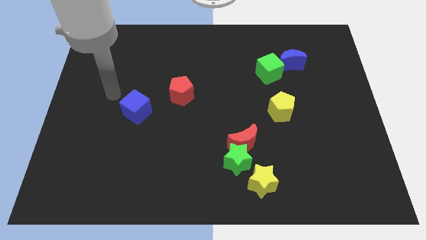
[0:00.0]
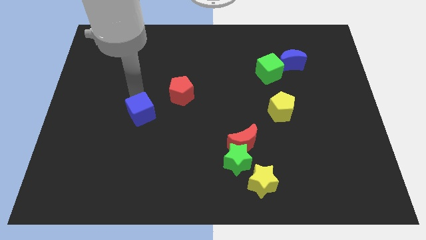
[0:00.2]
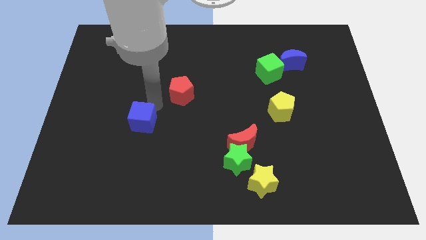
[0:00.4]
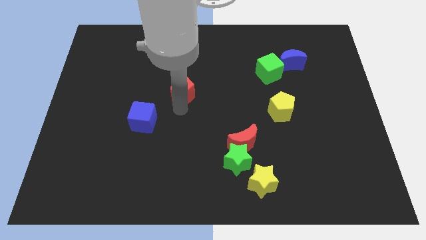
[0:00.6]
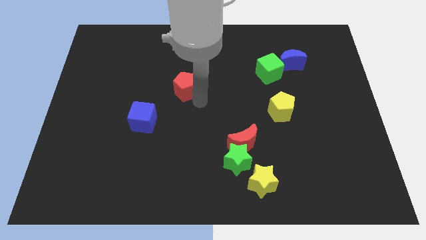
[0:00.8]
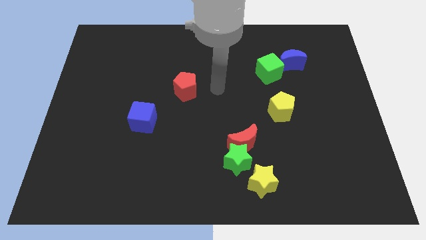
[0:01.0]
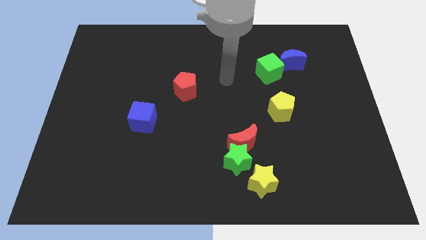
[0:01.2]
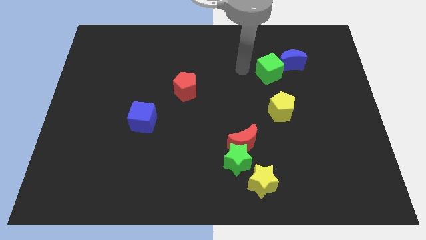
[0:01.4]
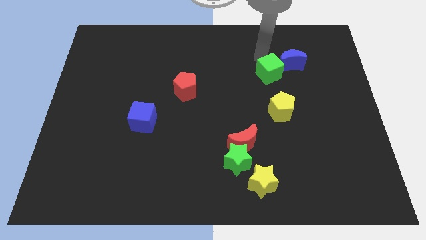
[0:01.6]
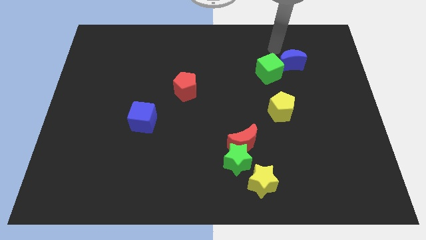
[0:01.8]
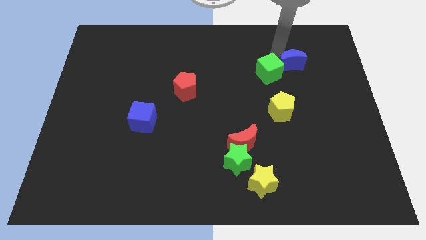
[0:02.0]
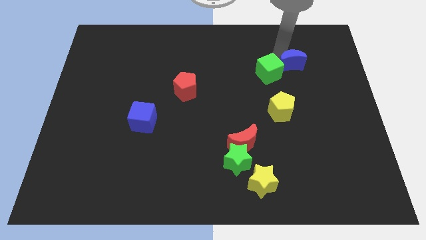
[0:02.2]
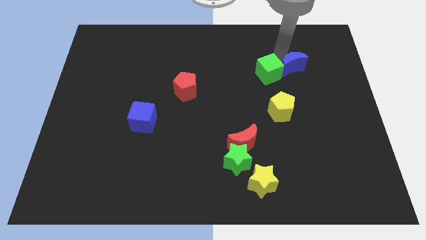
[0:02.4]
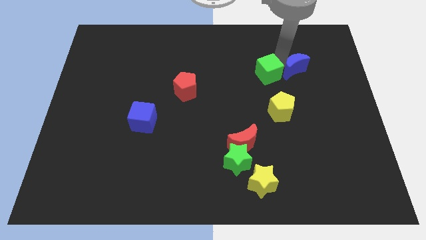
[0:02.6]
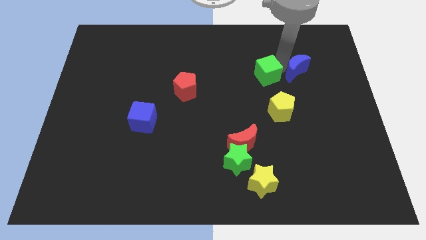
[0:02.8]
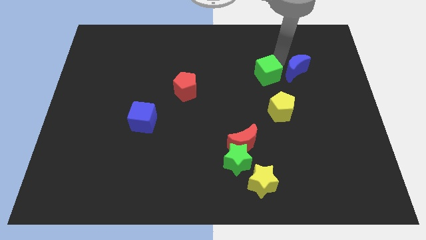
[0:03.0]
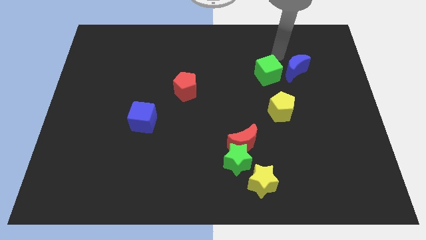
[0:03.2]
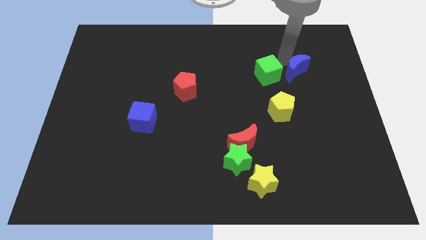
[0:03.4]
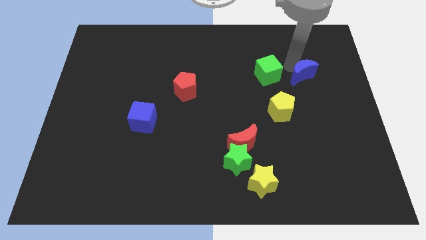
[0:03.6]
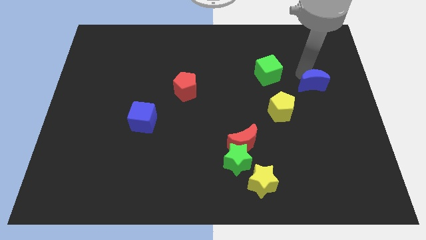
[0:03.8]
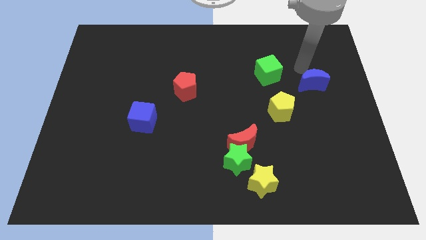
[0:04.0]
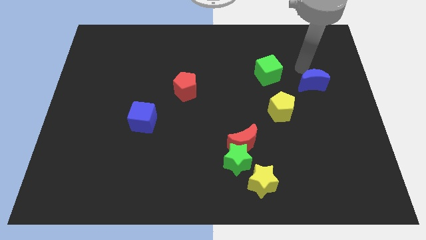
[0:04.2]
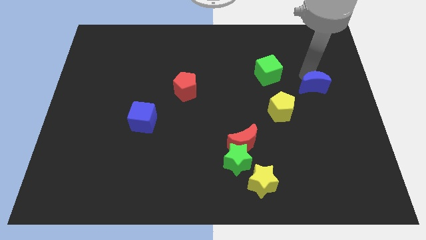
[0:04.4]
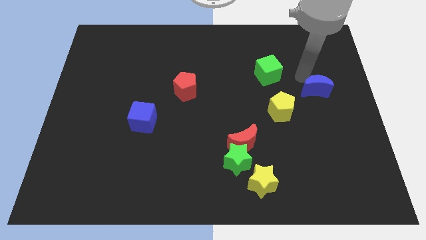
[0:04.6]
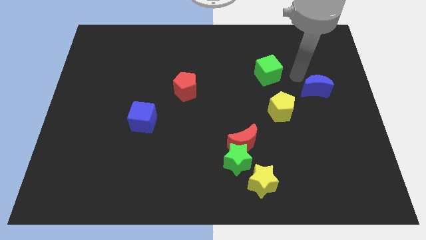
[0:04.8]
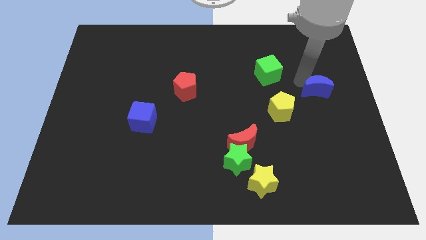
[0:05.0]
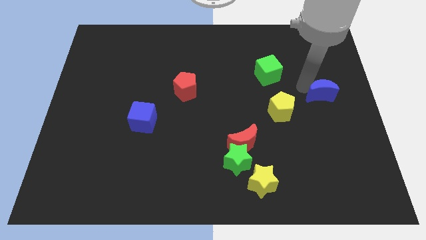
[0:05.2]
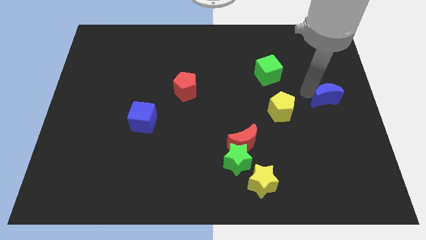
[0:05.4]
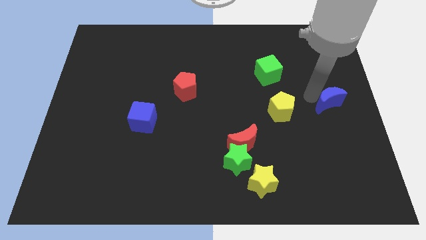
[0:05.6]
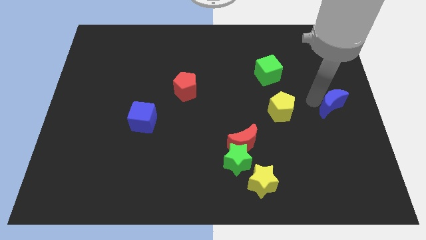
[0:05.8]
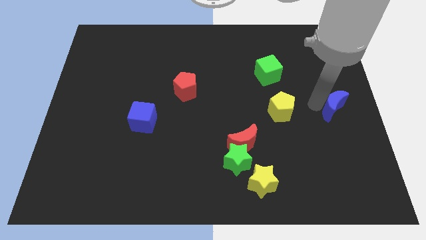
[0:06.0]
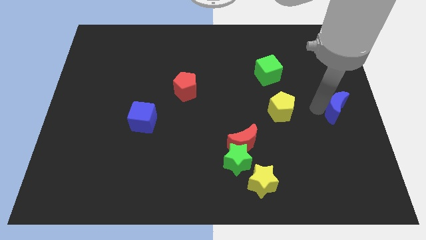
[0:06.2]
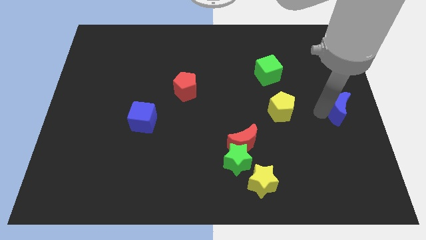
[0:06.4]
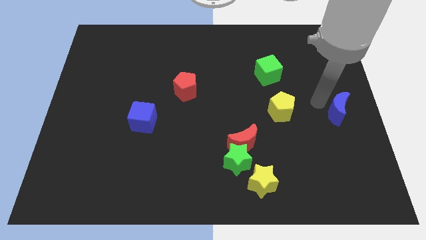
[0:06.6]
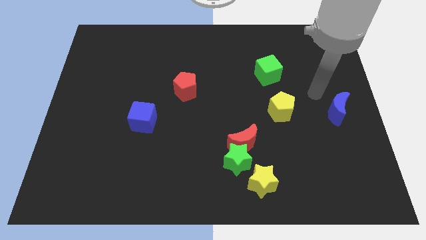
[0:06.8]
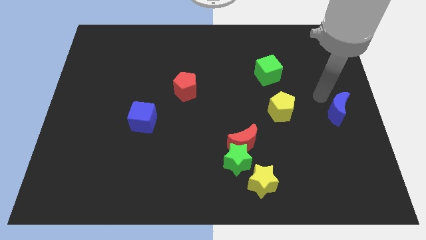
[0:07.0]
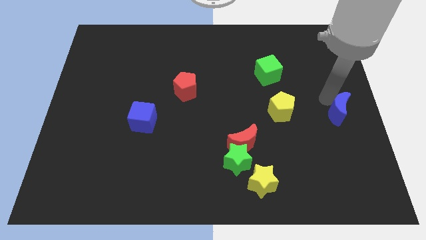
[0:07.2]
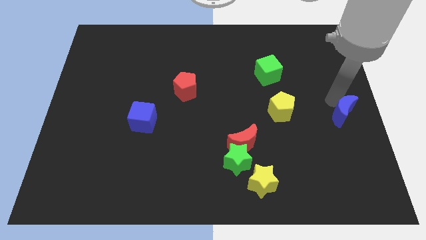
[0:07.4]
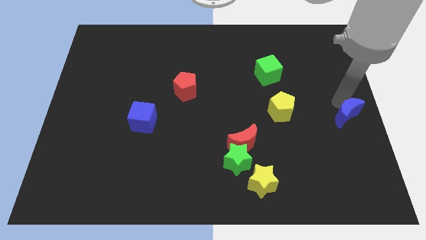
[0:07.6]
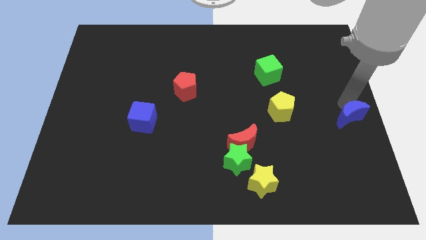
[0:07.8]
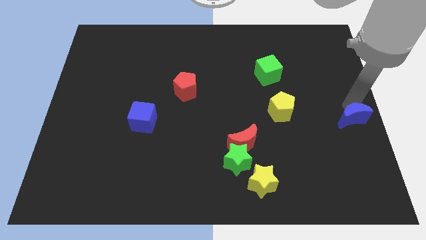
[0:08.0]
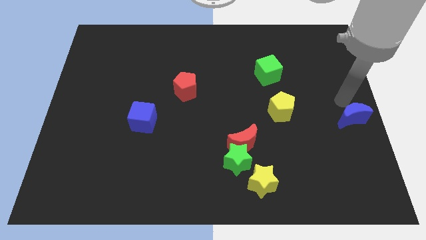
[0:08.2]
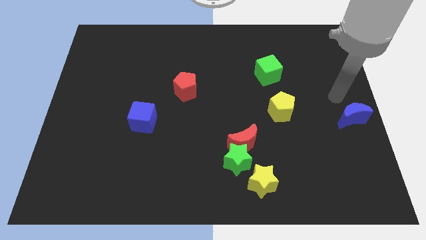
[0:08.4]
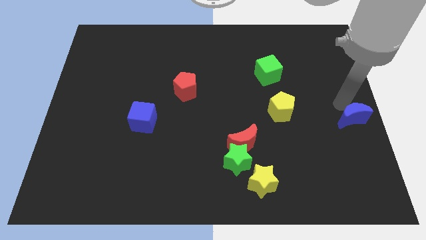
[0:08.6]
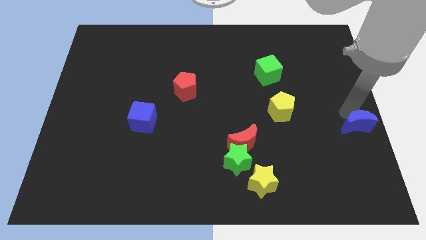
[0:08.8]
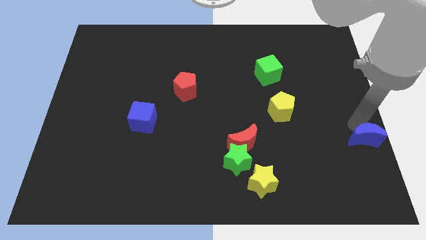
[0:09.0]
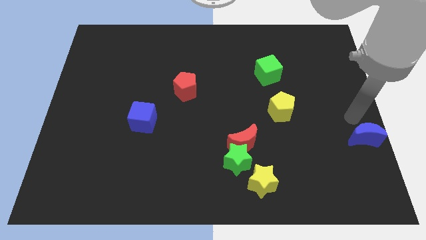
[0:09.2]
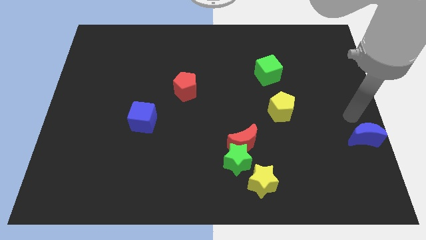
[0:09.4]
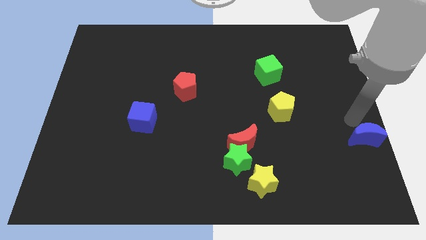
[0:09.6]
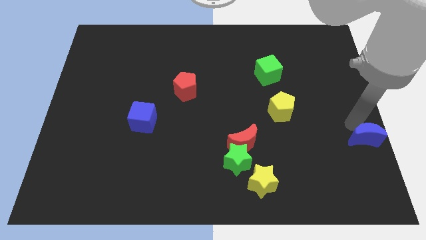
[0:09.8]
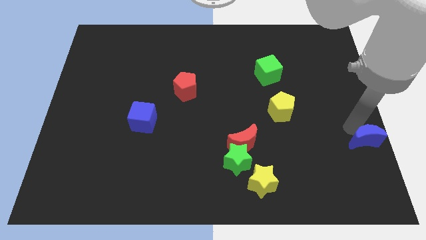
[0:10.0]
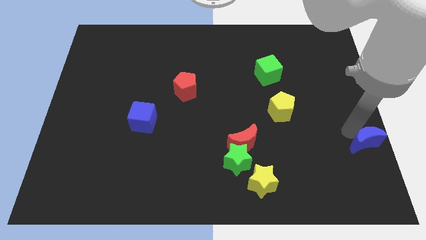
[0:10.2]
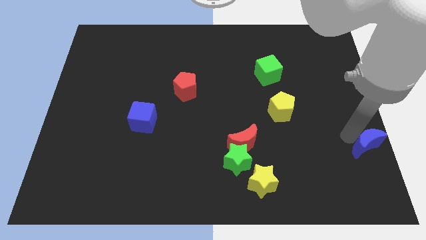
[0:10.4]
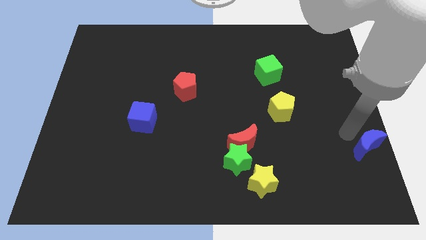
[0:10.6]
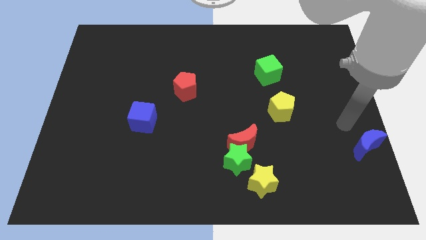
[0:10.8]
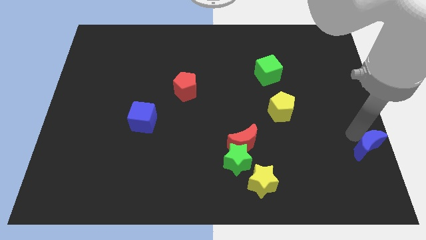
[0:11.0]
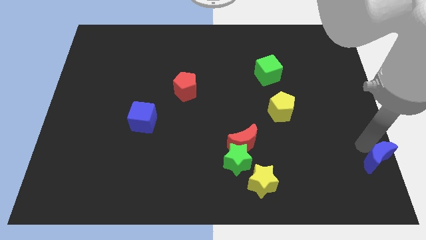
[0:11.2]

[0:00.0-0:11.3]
move the blue moon to the bottom right

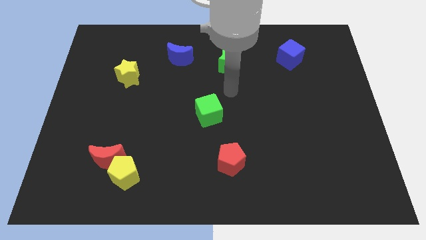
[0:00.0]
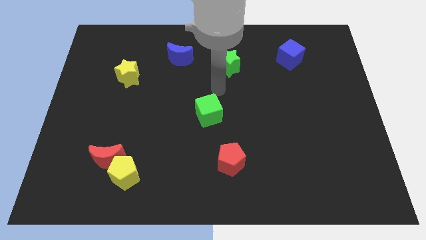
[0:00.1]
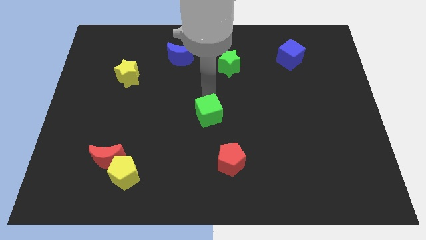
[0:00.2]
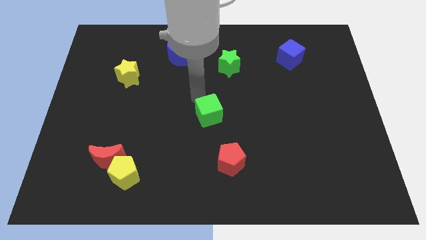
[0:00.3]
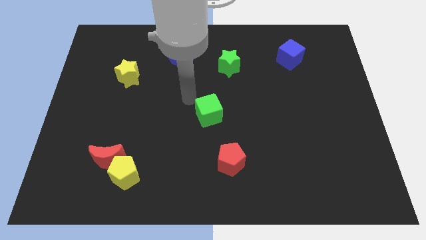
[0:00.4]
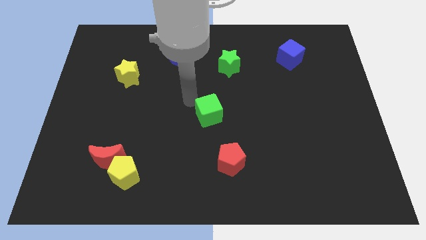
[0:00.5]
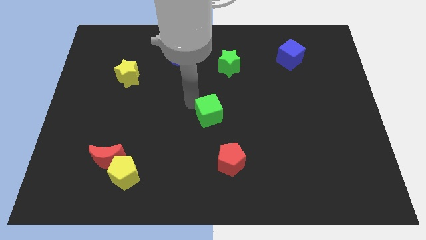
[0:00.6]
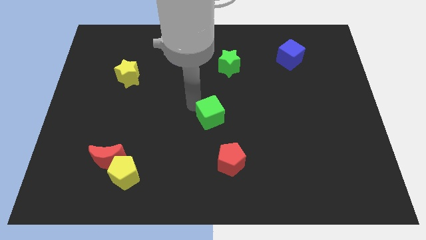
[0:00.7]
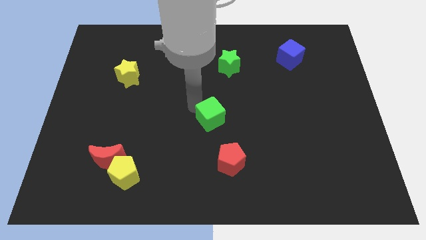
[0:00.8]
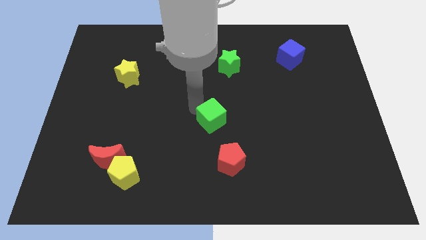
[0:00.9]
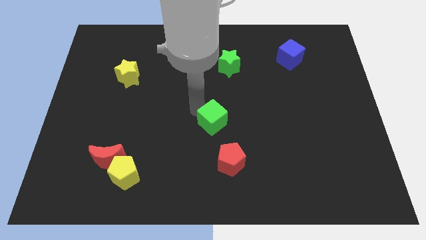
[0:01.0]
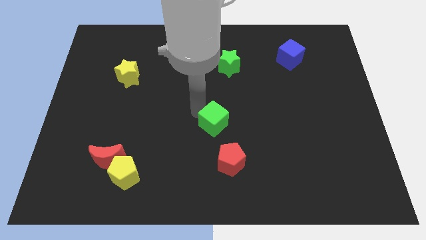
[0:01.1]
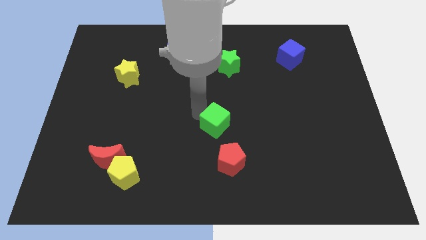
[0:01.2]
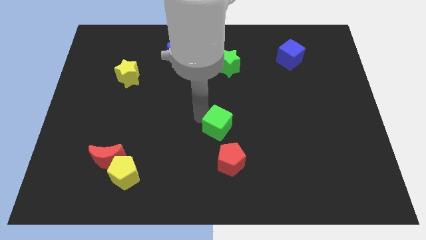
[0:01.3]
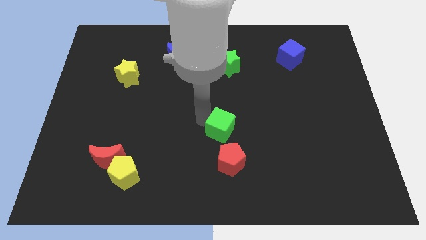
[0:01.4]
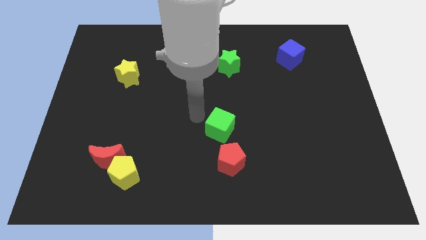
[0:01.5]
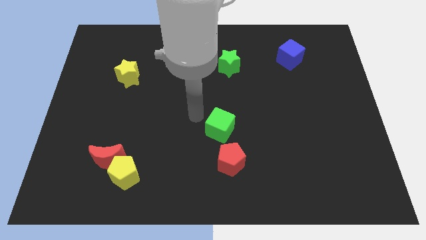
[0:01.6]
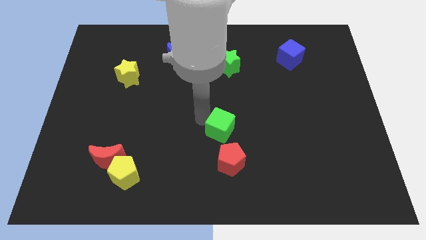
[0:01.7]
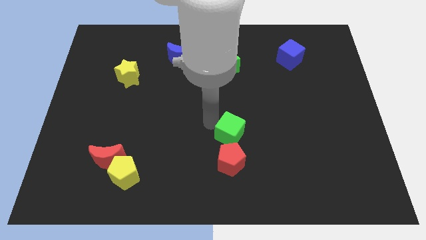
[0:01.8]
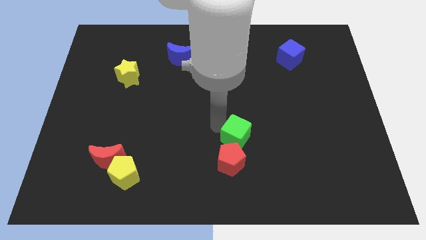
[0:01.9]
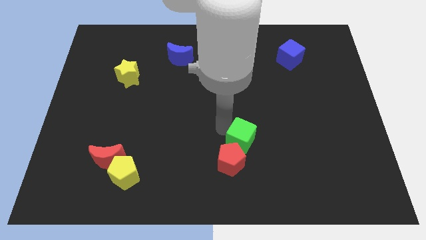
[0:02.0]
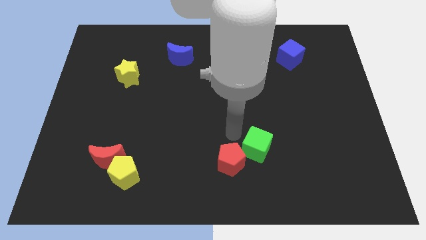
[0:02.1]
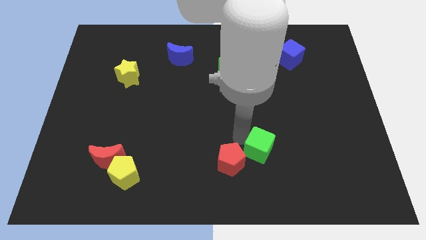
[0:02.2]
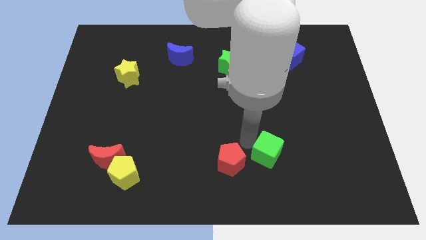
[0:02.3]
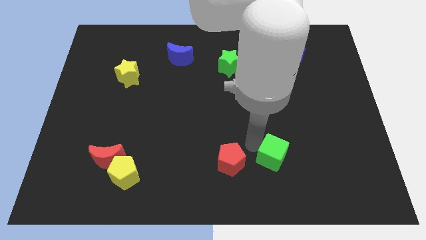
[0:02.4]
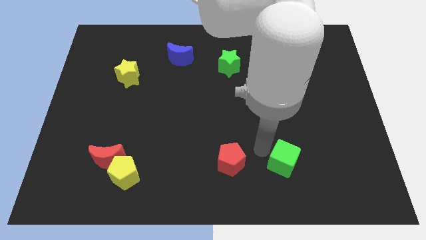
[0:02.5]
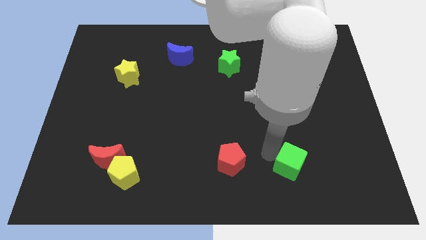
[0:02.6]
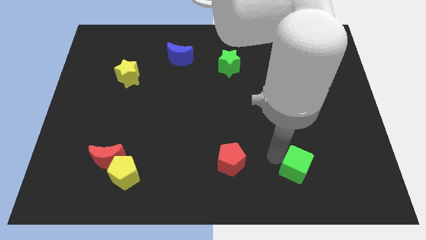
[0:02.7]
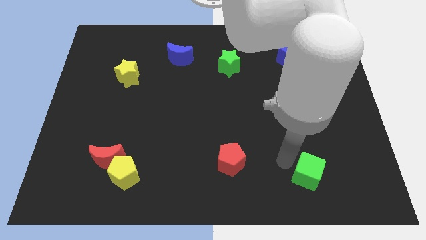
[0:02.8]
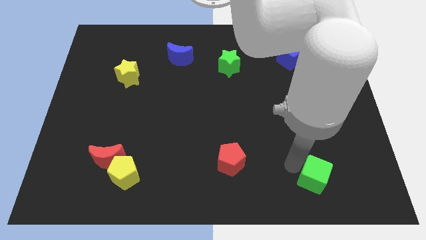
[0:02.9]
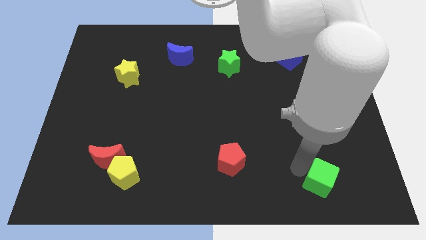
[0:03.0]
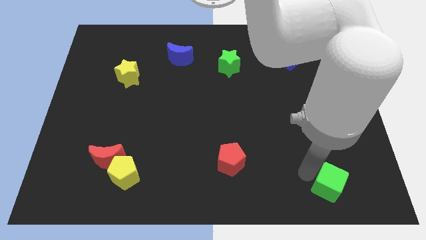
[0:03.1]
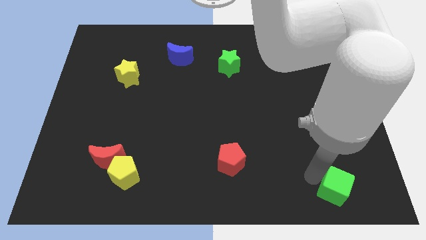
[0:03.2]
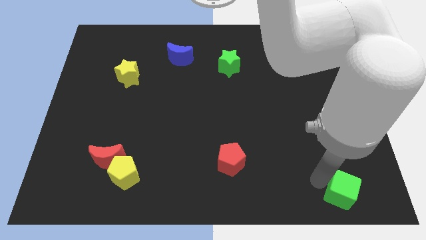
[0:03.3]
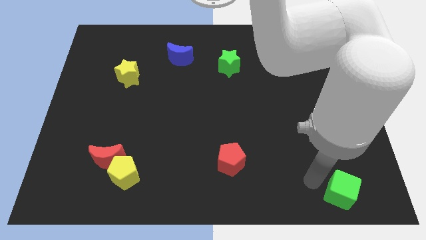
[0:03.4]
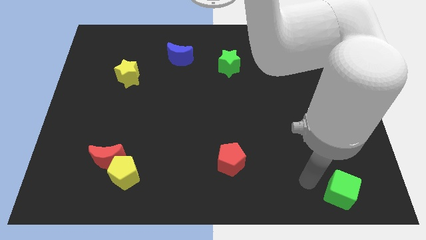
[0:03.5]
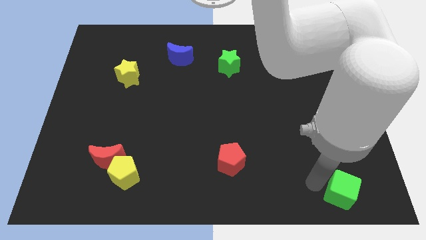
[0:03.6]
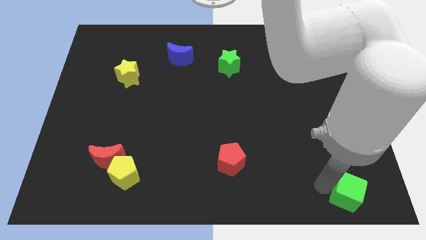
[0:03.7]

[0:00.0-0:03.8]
move the green cube to the lower right corner
